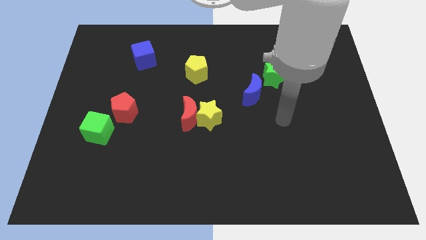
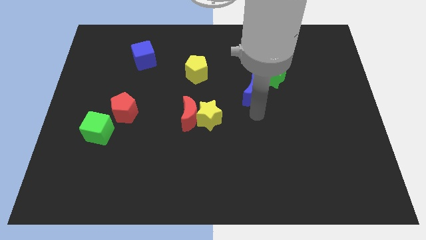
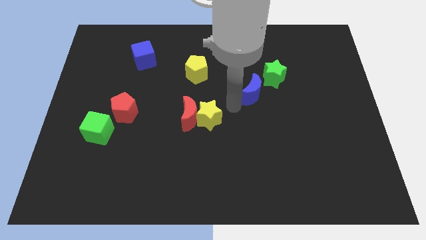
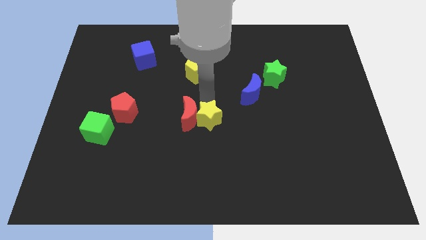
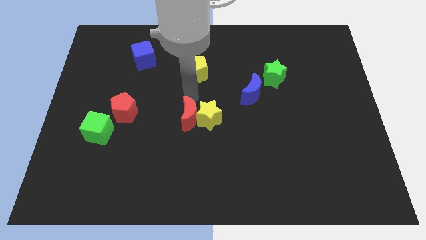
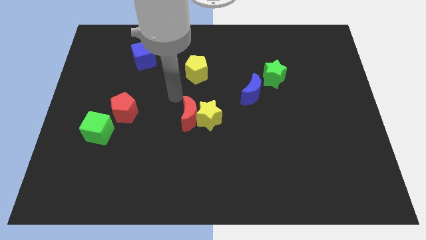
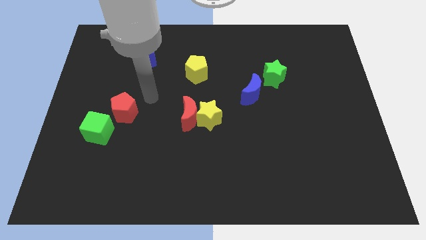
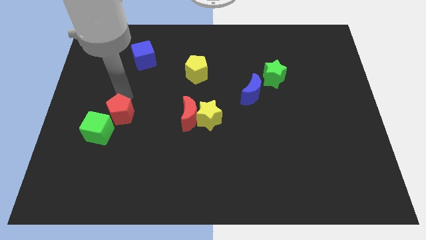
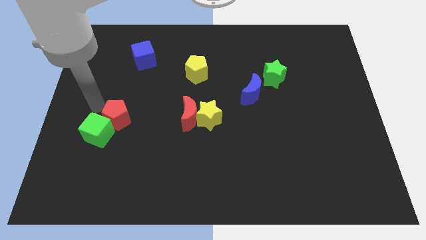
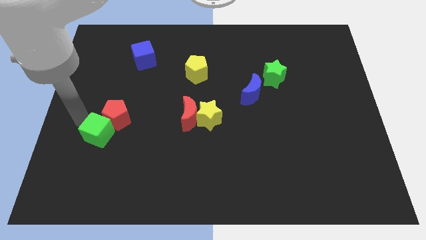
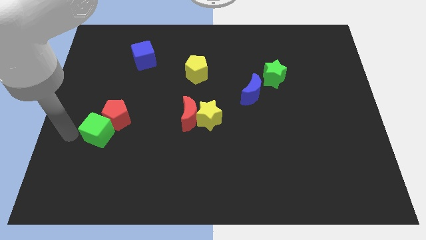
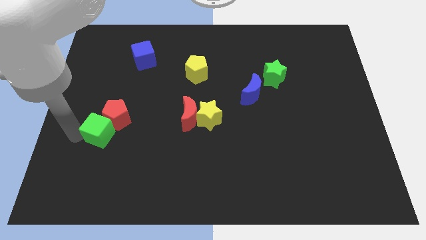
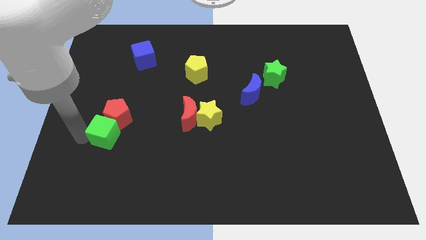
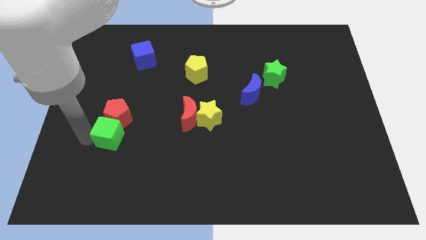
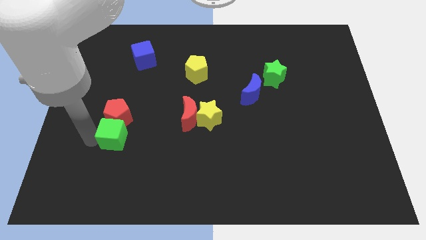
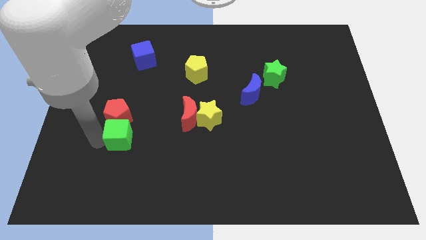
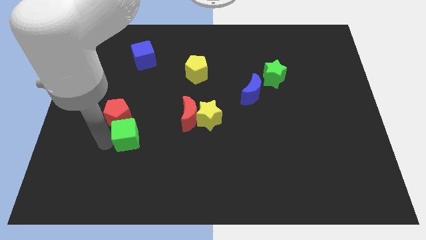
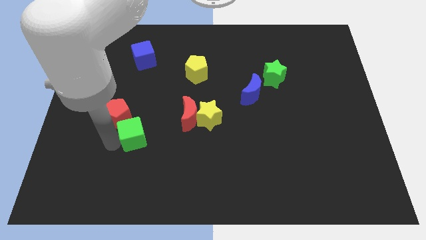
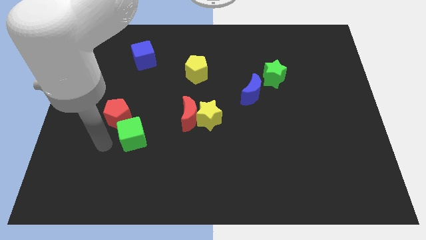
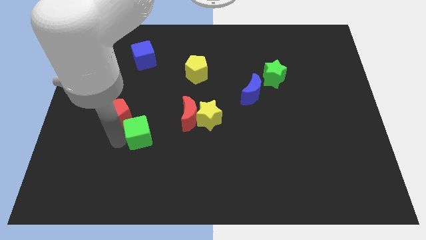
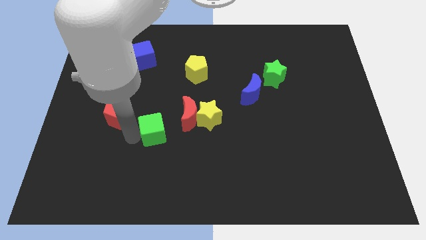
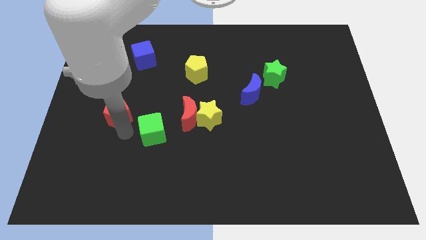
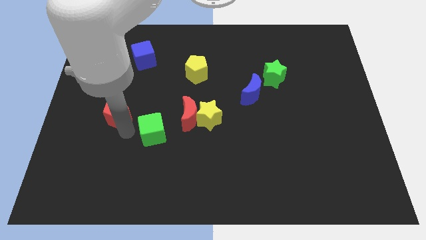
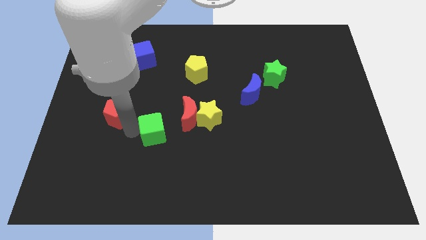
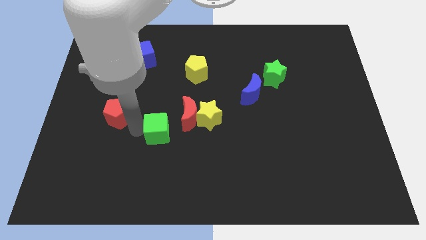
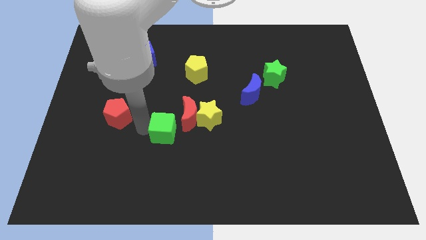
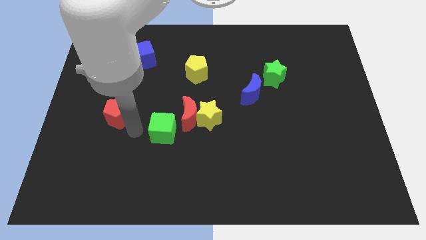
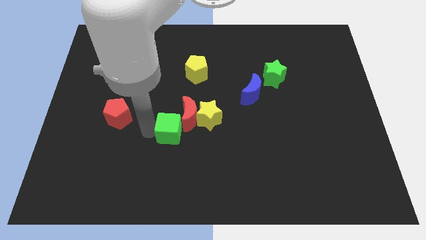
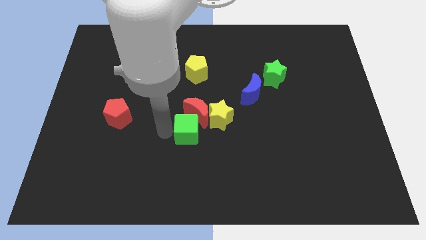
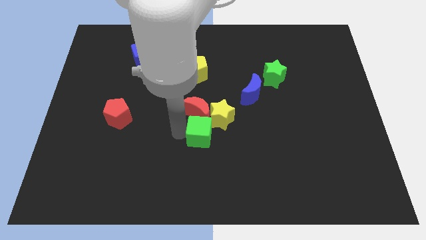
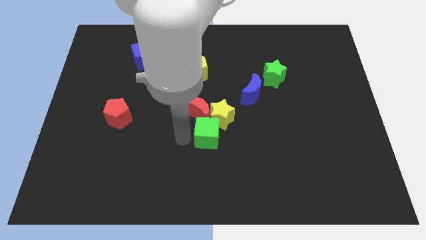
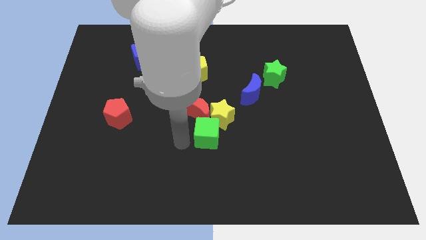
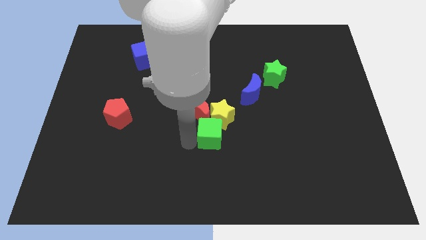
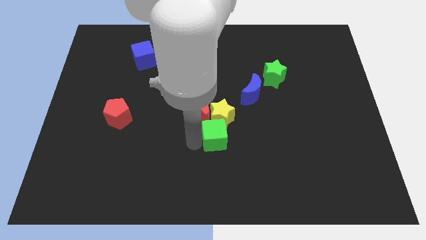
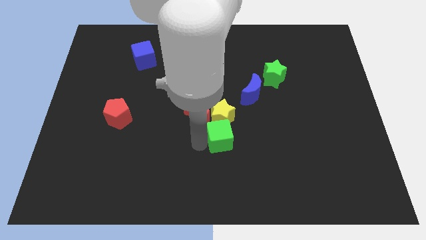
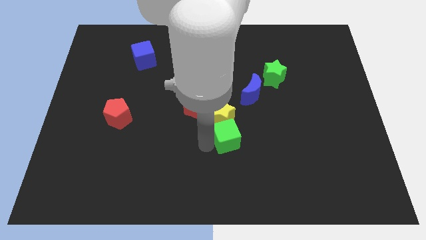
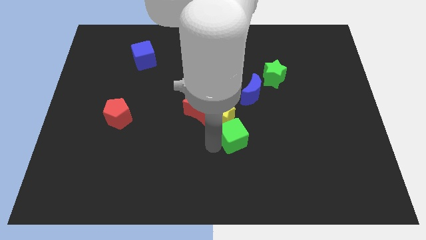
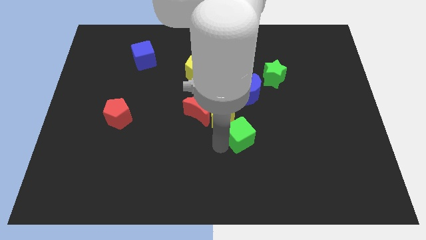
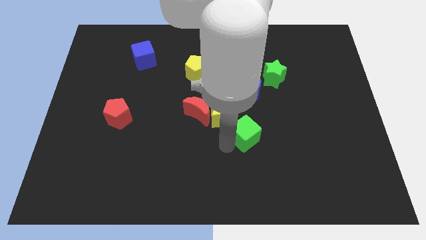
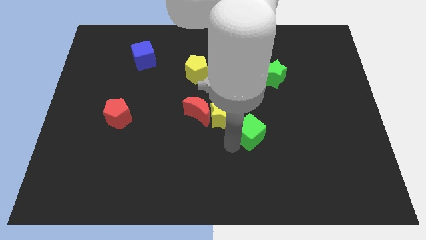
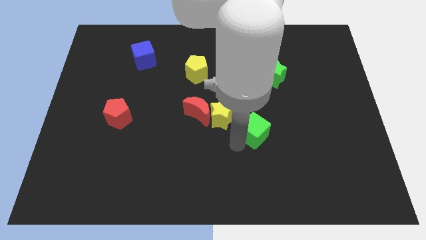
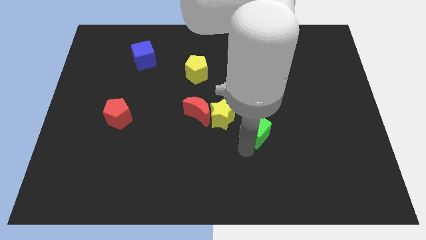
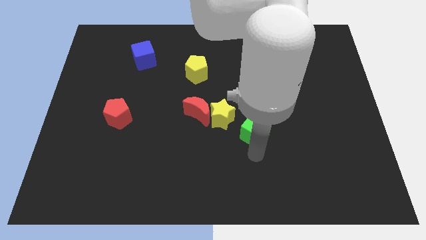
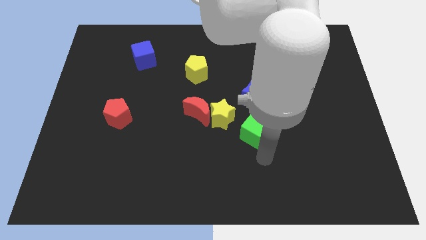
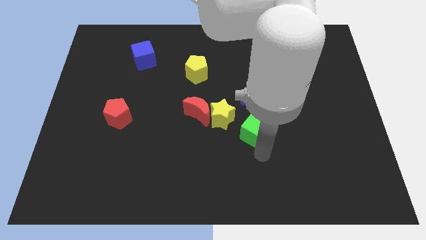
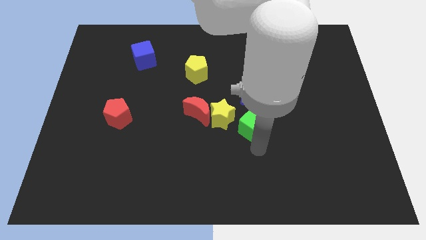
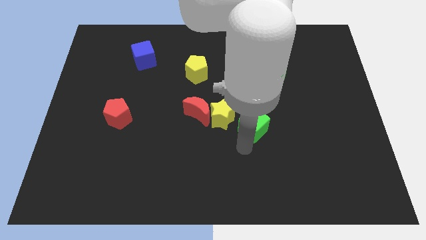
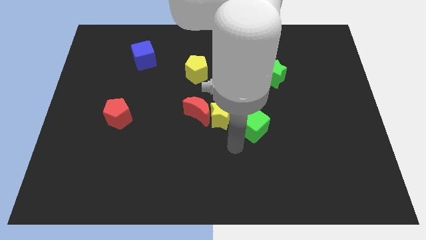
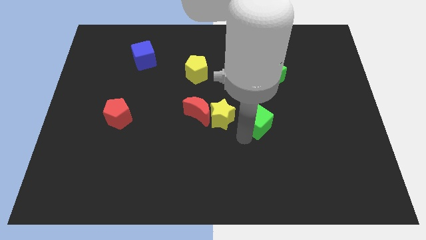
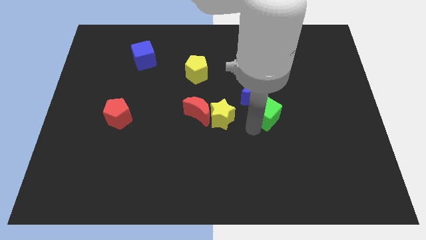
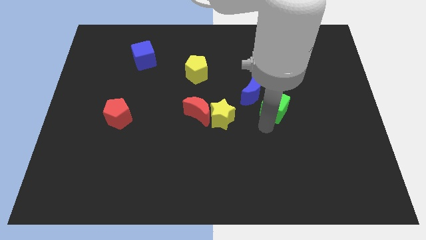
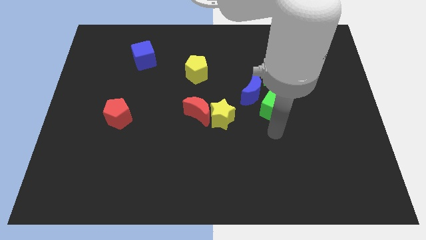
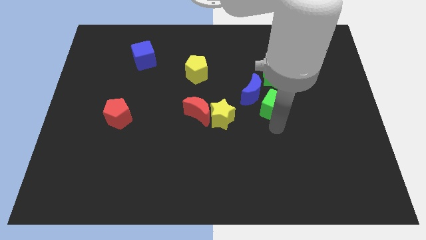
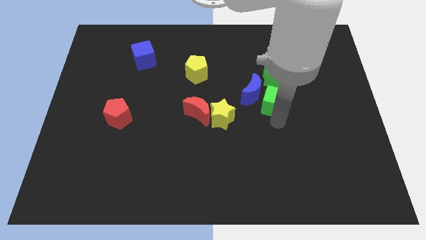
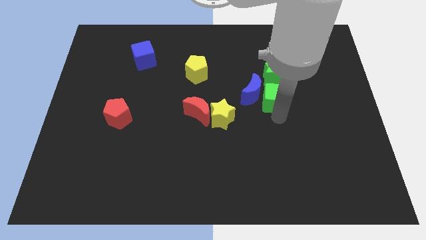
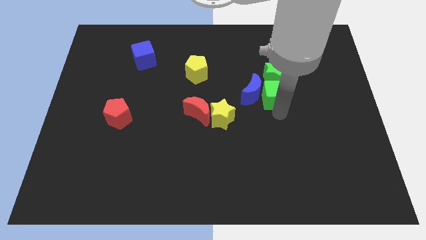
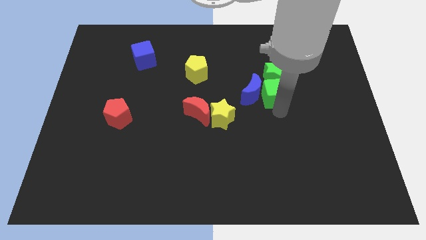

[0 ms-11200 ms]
move the green cube to the green star

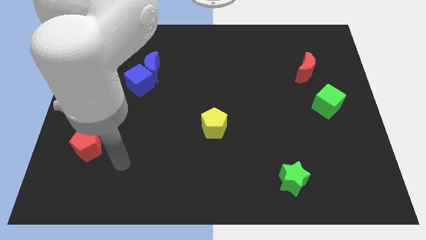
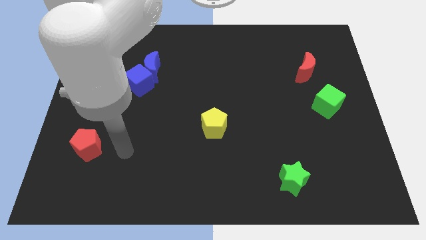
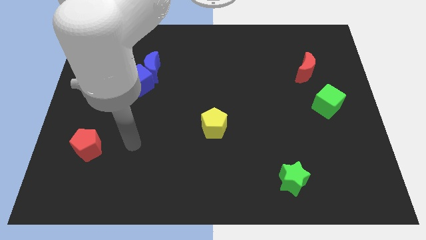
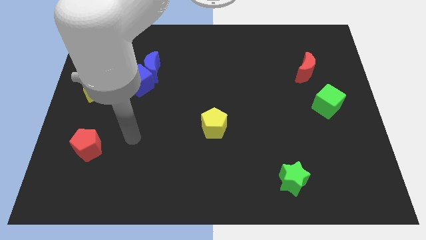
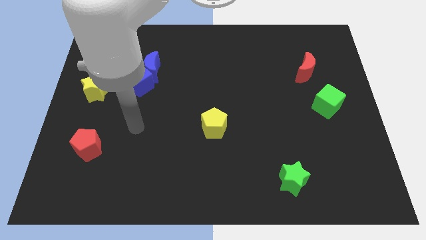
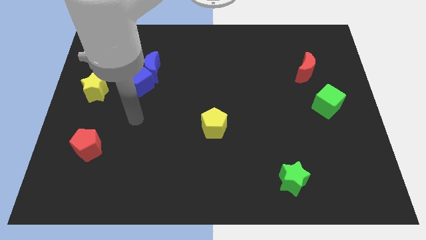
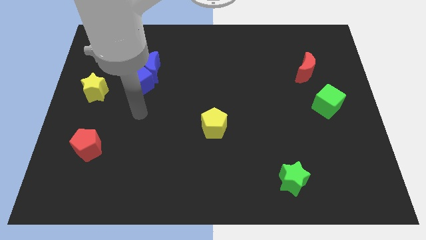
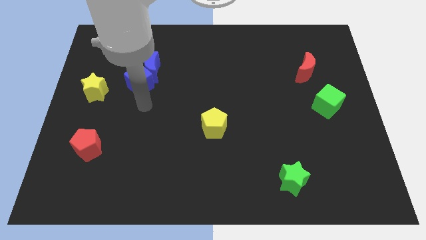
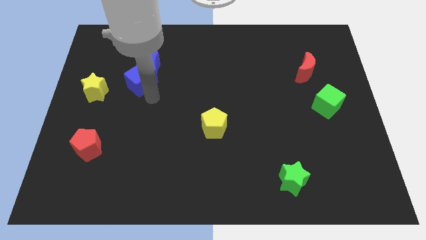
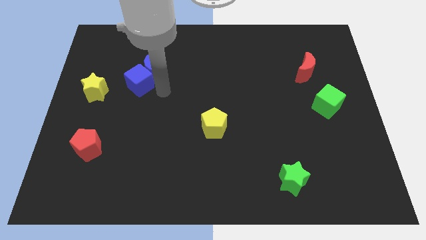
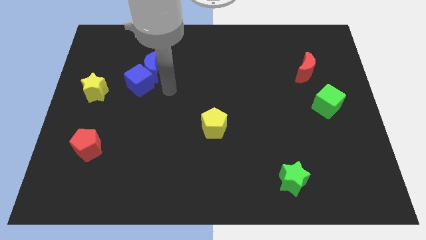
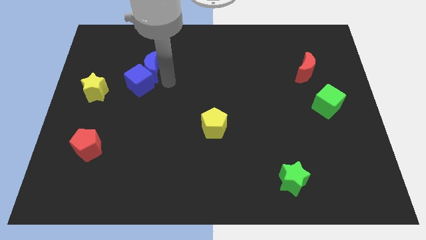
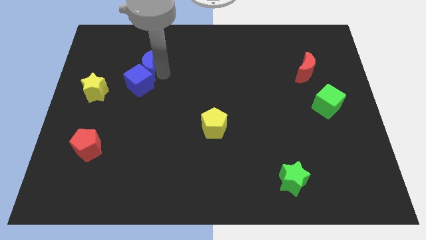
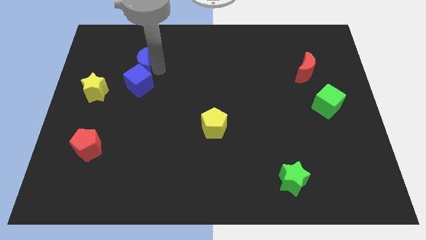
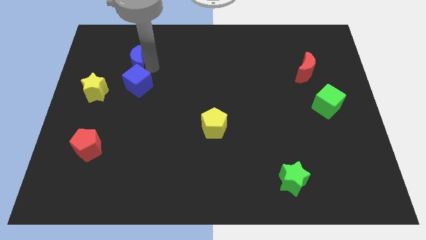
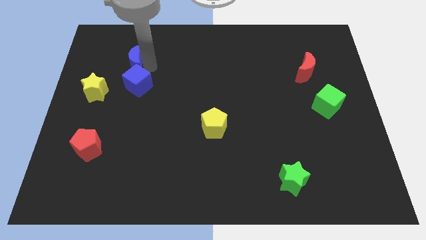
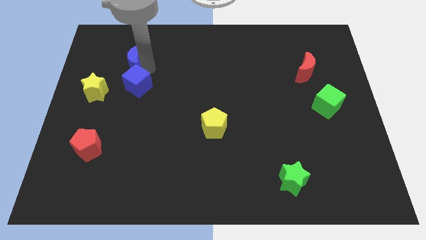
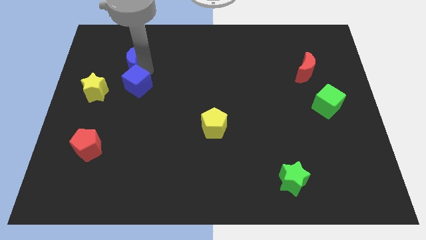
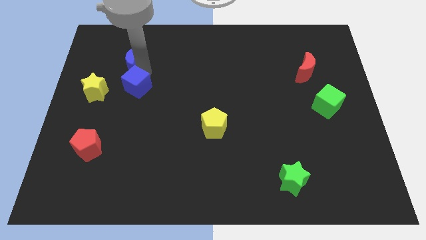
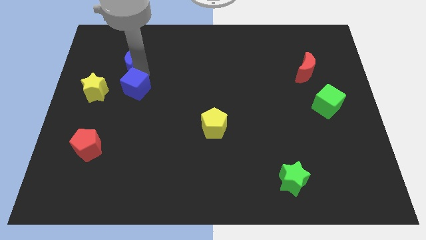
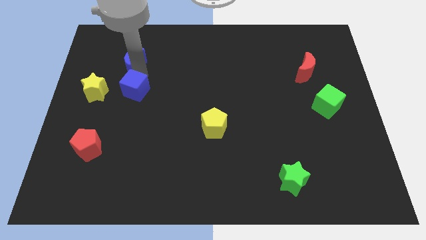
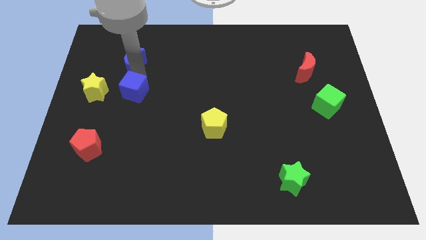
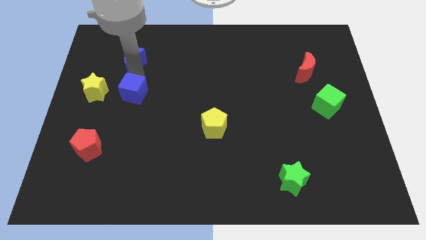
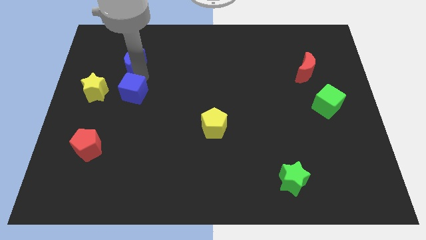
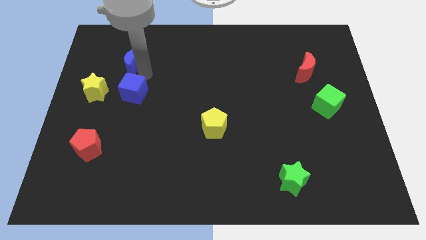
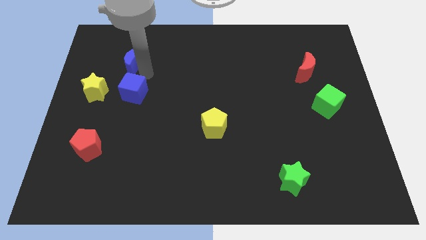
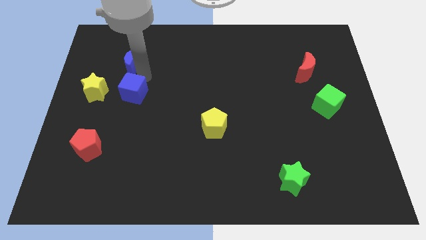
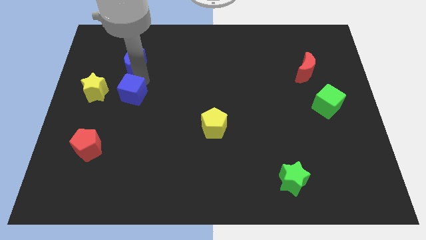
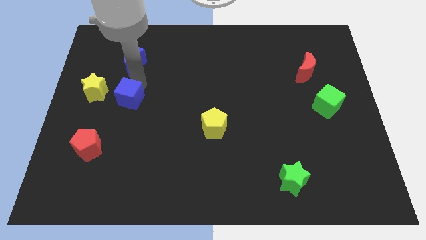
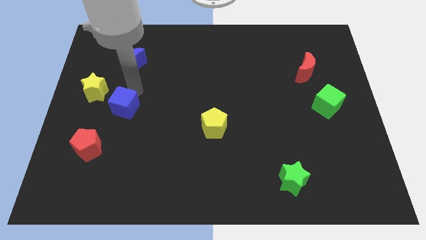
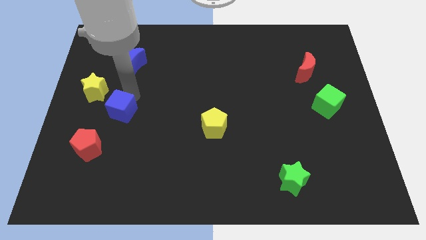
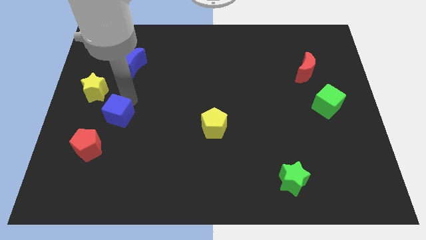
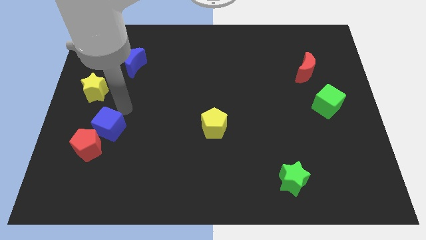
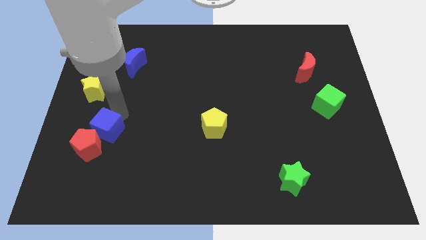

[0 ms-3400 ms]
push the blue cube towards the red pentagon
